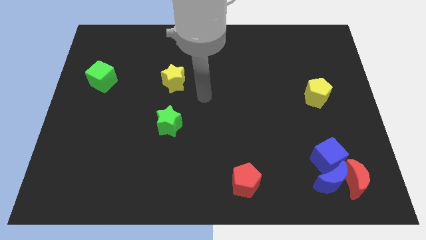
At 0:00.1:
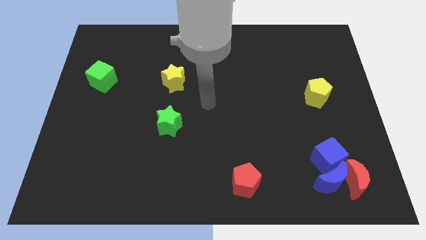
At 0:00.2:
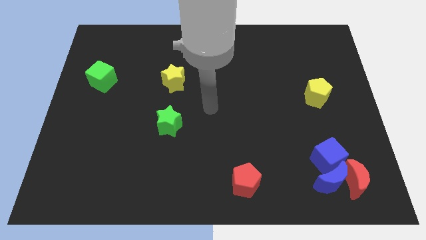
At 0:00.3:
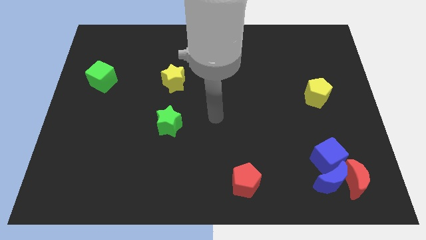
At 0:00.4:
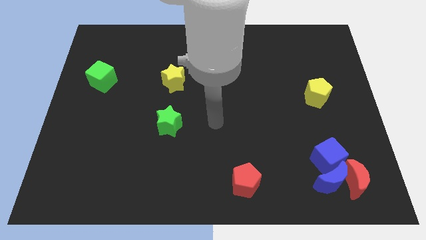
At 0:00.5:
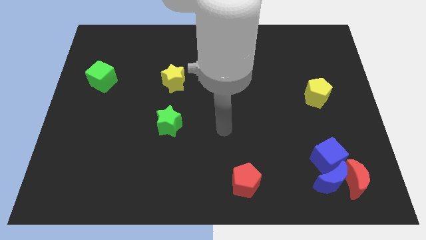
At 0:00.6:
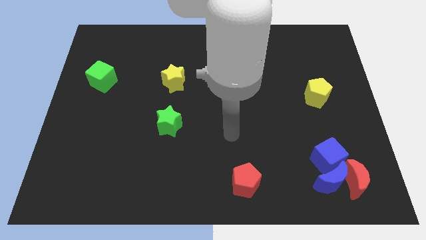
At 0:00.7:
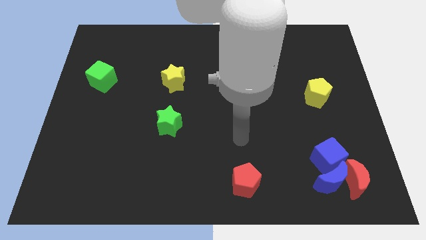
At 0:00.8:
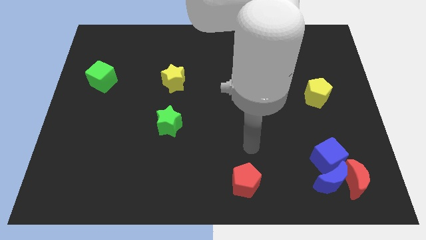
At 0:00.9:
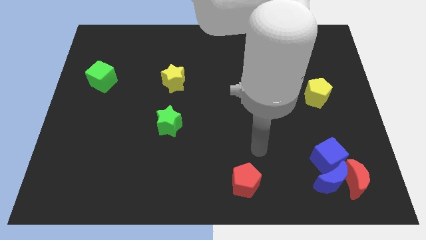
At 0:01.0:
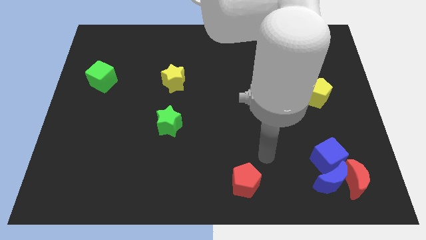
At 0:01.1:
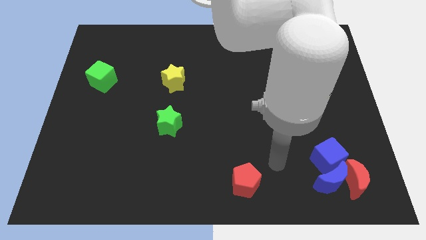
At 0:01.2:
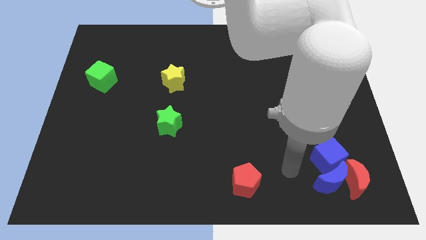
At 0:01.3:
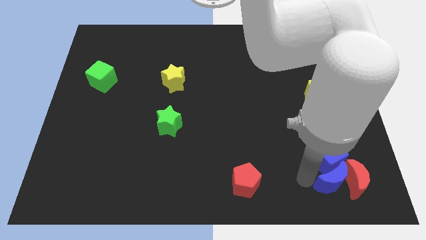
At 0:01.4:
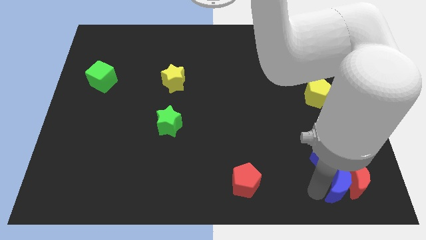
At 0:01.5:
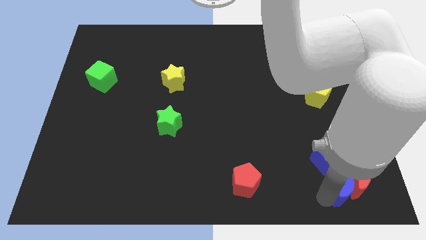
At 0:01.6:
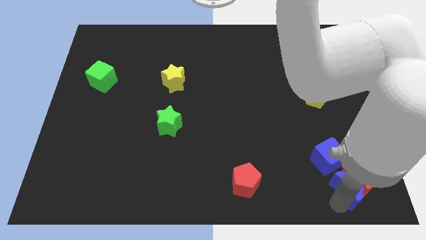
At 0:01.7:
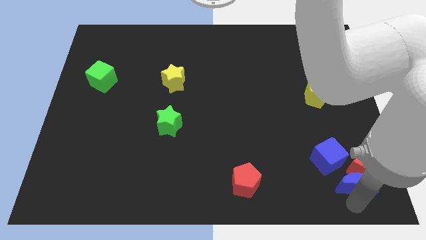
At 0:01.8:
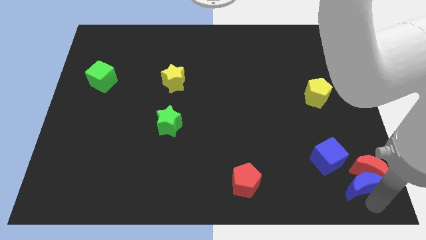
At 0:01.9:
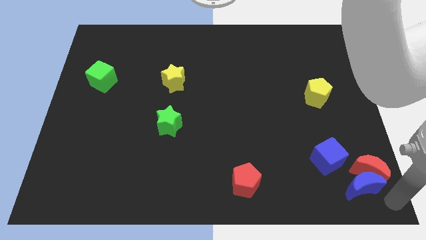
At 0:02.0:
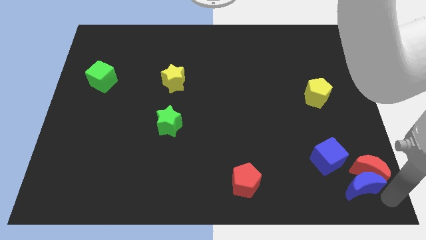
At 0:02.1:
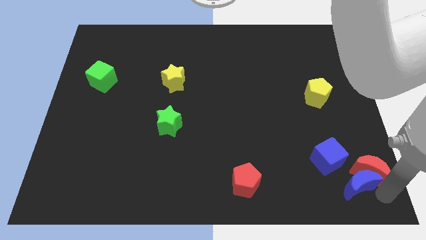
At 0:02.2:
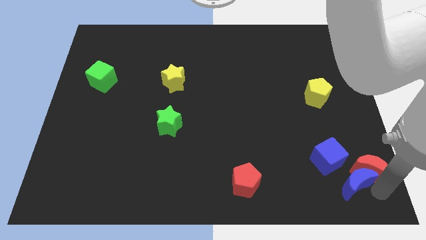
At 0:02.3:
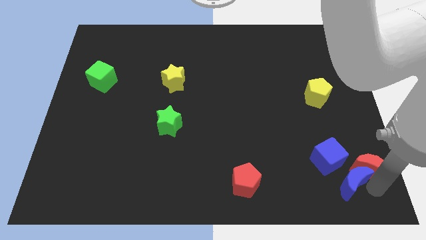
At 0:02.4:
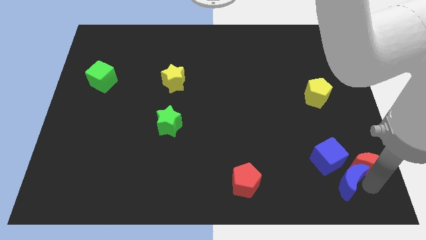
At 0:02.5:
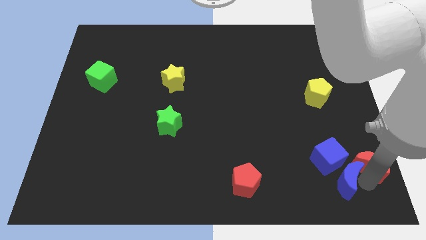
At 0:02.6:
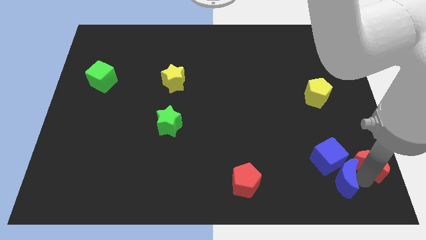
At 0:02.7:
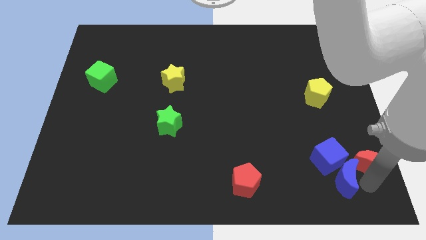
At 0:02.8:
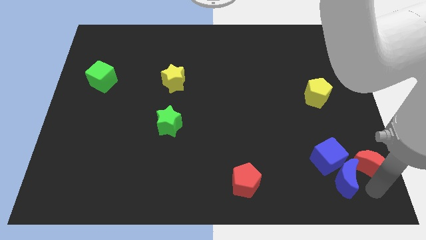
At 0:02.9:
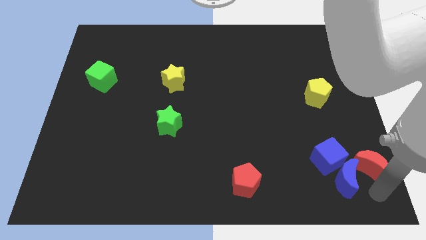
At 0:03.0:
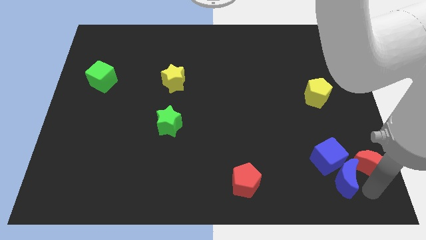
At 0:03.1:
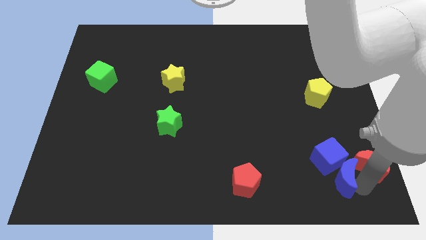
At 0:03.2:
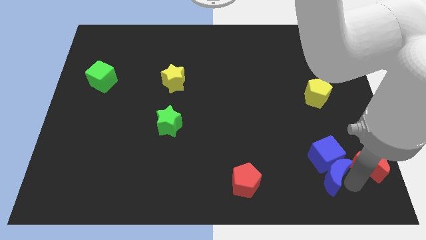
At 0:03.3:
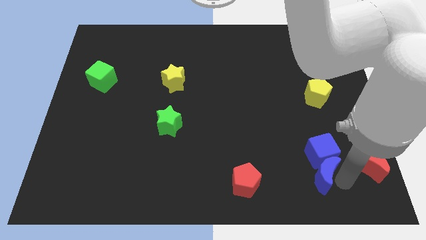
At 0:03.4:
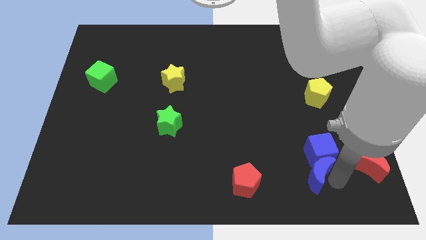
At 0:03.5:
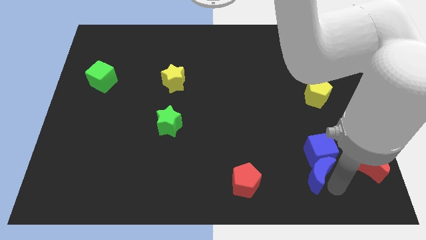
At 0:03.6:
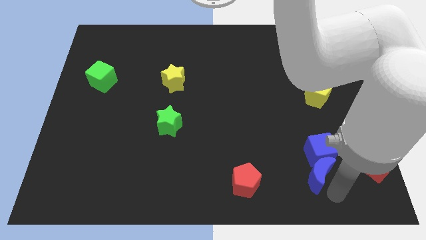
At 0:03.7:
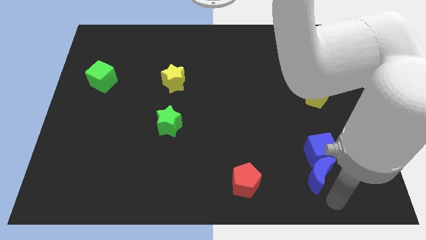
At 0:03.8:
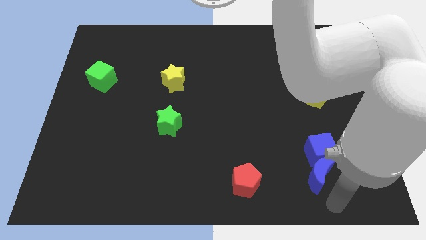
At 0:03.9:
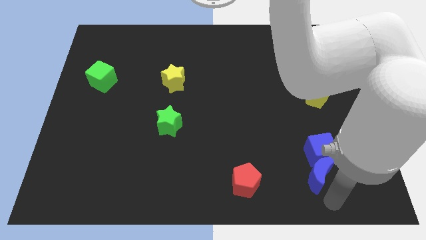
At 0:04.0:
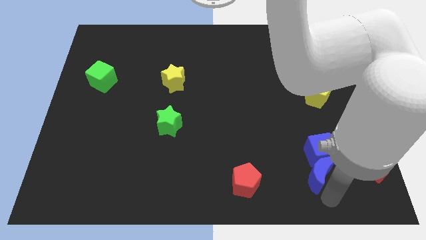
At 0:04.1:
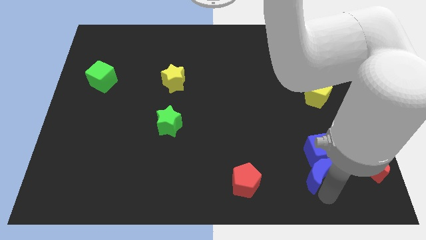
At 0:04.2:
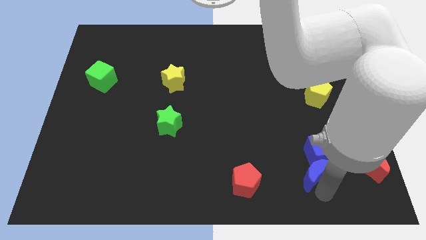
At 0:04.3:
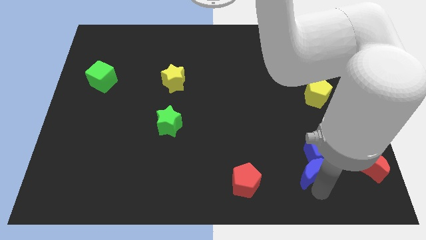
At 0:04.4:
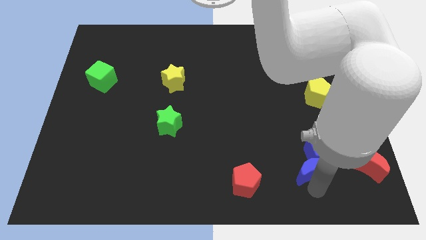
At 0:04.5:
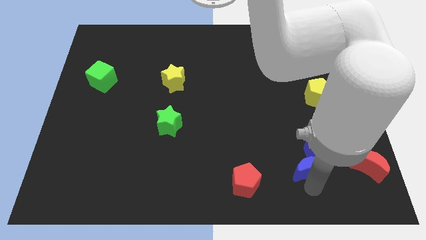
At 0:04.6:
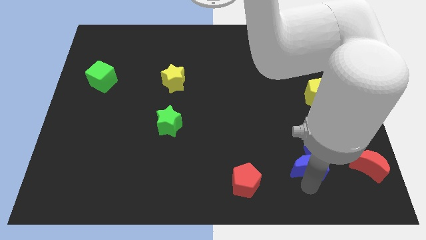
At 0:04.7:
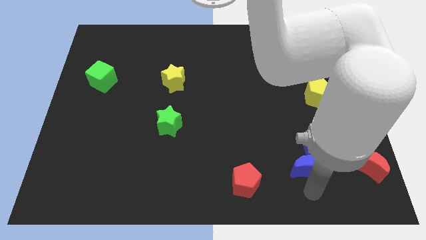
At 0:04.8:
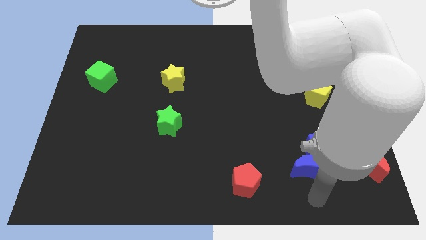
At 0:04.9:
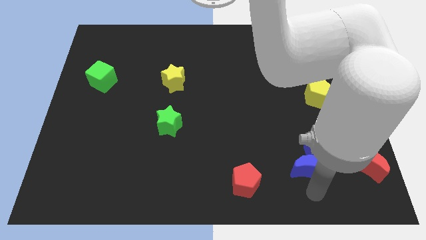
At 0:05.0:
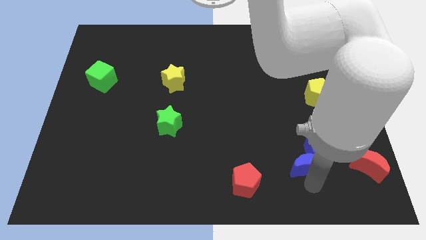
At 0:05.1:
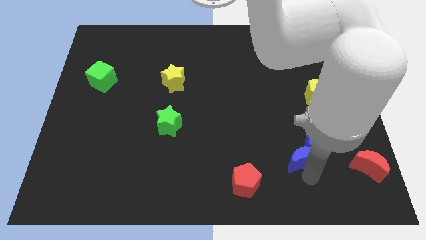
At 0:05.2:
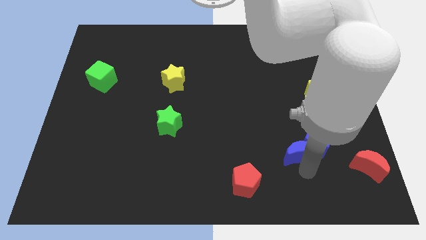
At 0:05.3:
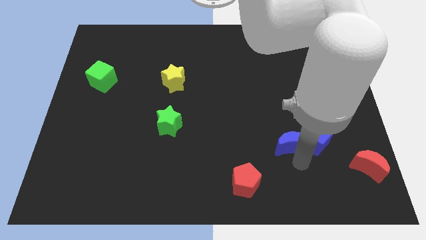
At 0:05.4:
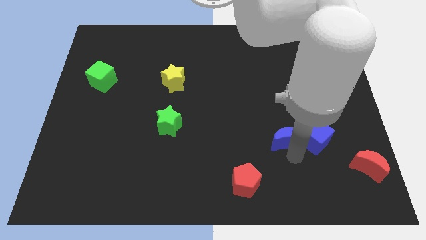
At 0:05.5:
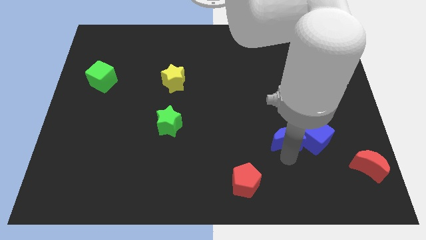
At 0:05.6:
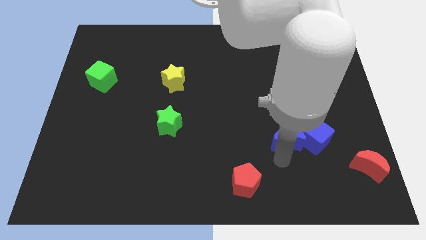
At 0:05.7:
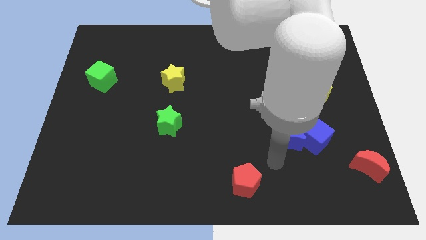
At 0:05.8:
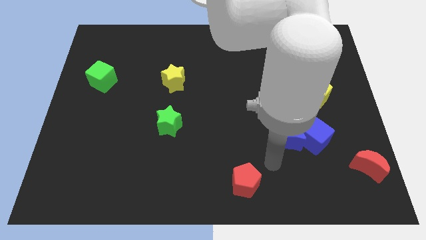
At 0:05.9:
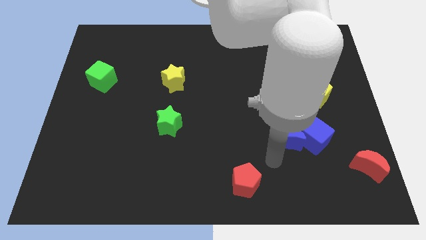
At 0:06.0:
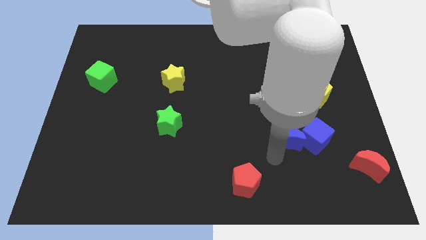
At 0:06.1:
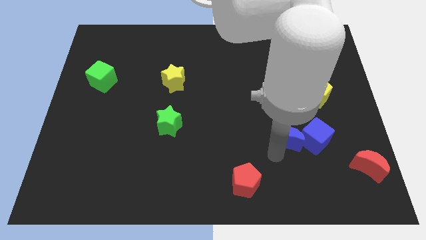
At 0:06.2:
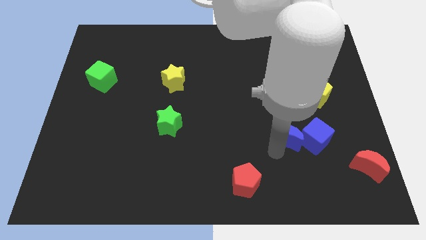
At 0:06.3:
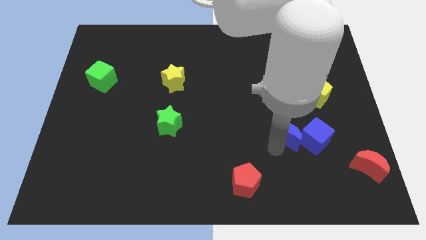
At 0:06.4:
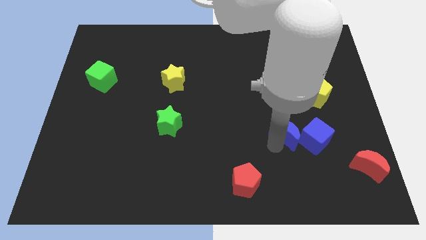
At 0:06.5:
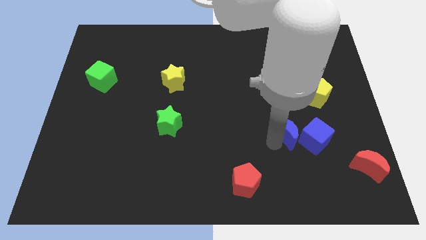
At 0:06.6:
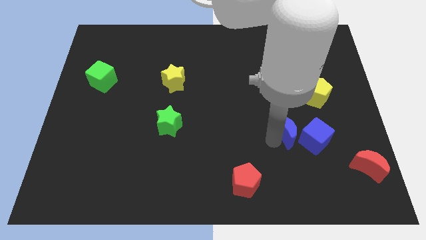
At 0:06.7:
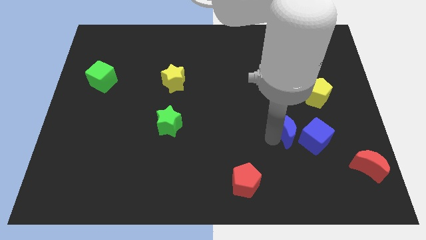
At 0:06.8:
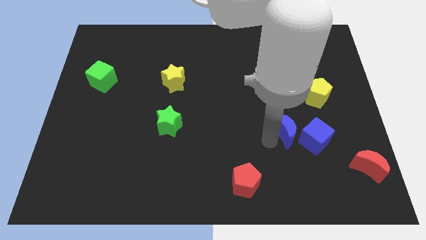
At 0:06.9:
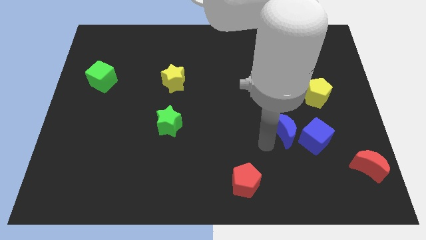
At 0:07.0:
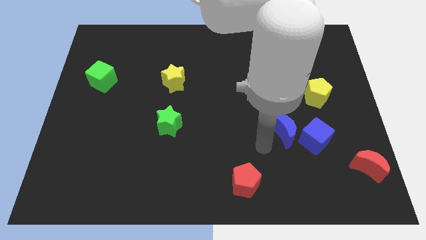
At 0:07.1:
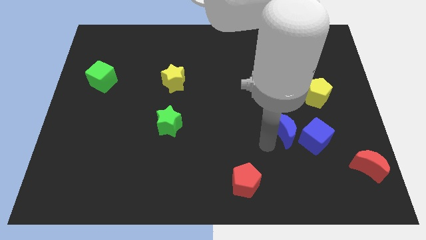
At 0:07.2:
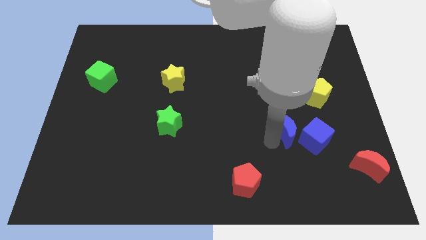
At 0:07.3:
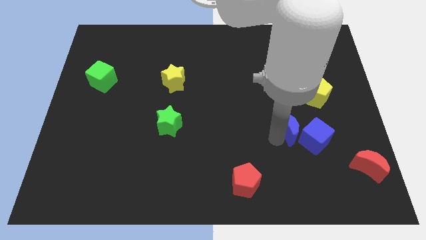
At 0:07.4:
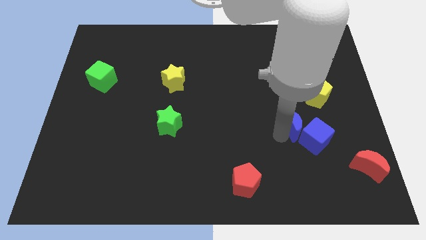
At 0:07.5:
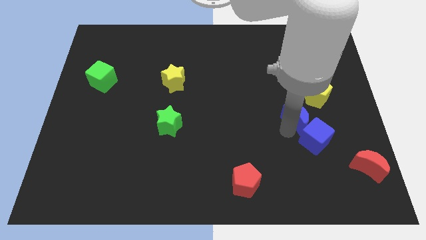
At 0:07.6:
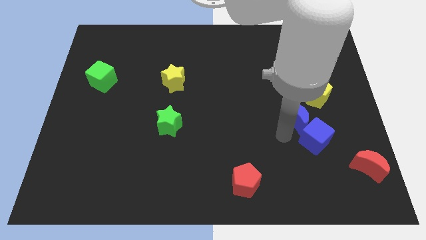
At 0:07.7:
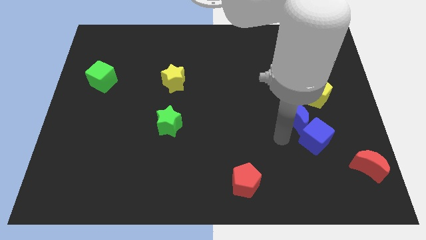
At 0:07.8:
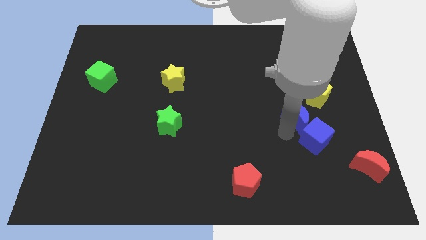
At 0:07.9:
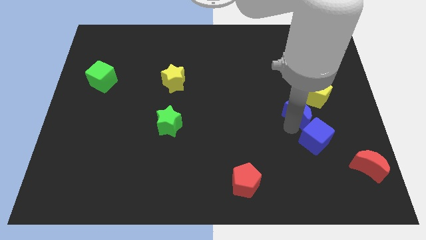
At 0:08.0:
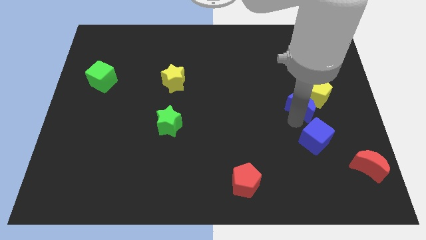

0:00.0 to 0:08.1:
push the blue moon next to the yellow pentagon
